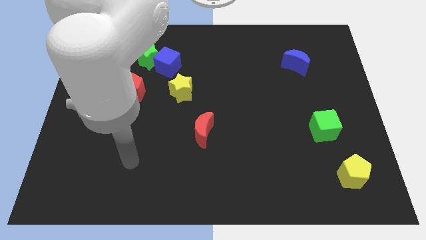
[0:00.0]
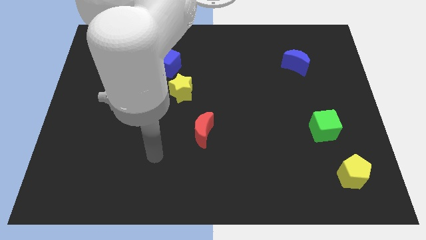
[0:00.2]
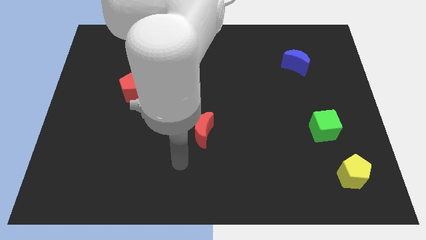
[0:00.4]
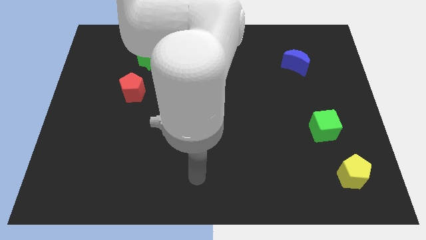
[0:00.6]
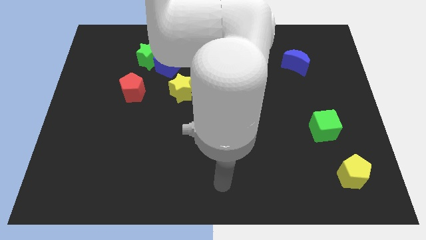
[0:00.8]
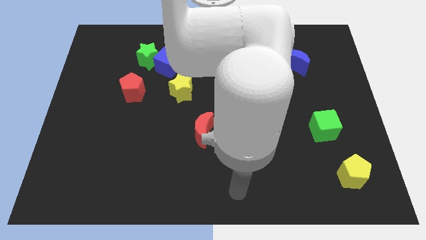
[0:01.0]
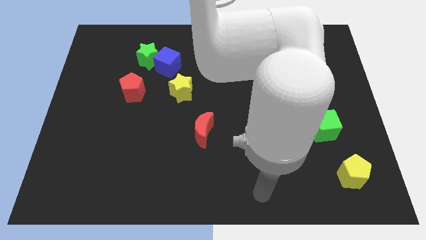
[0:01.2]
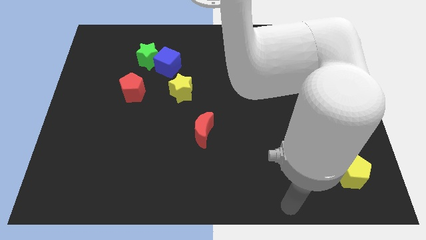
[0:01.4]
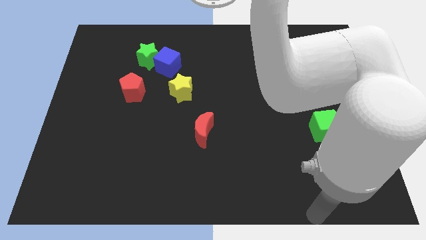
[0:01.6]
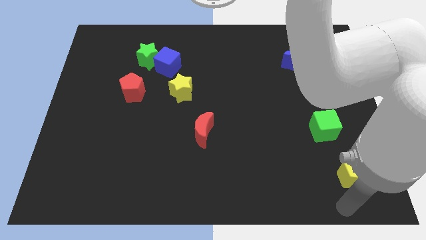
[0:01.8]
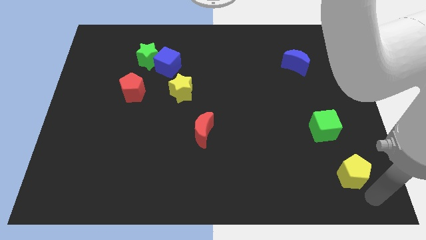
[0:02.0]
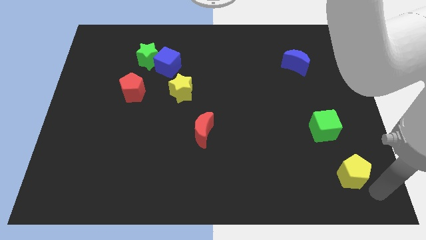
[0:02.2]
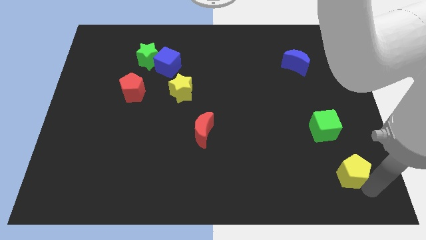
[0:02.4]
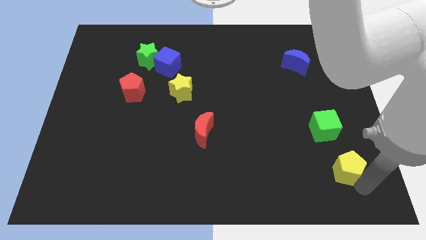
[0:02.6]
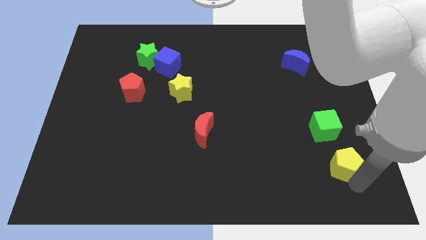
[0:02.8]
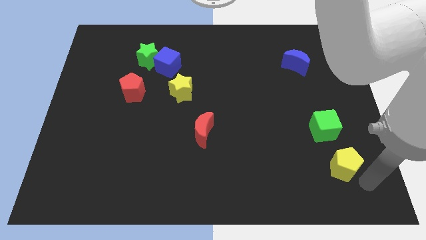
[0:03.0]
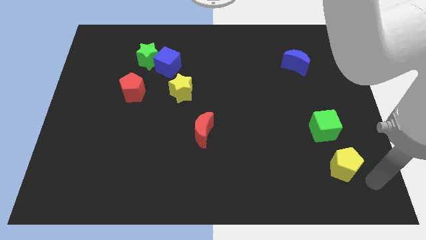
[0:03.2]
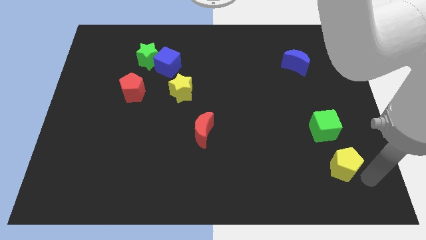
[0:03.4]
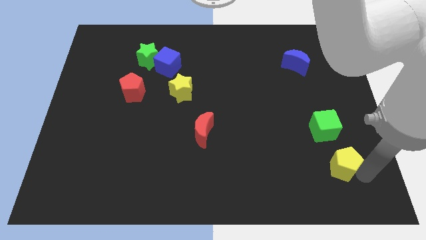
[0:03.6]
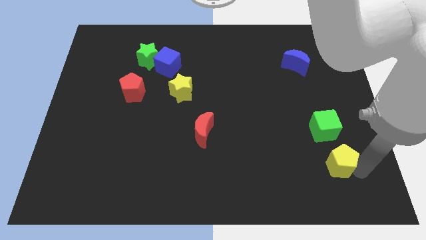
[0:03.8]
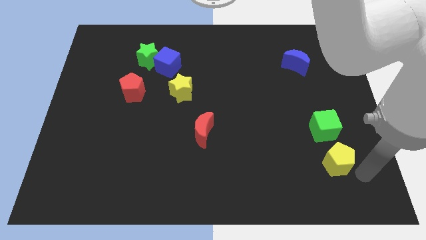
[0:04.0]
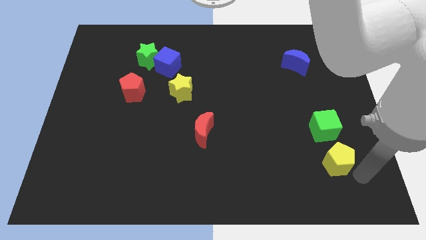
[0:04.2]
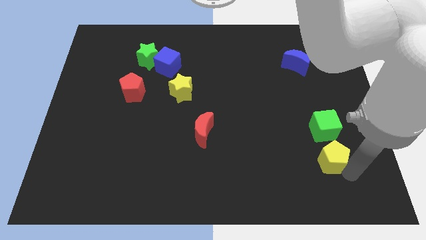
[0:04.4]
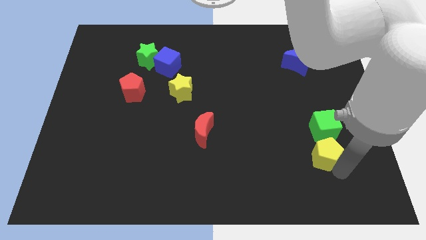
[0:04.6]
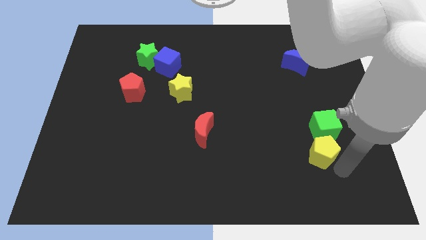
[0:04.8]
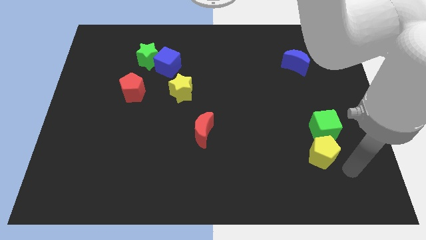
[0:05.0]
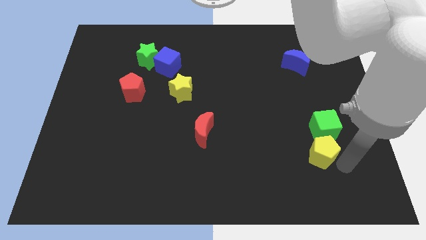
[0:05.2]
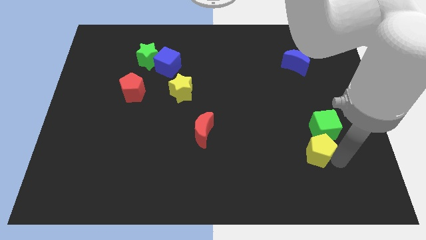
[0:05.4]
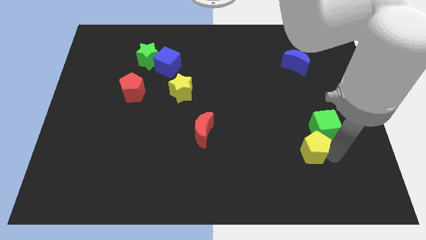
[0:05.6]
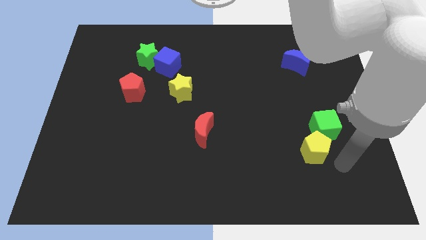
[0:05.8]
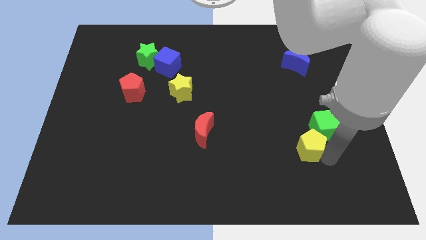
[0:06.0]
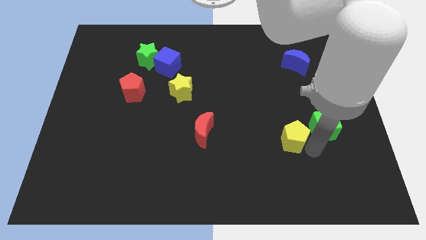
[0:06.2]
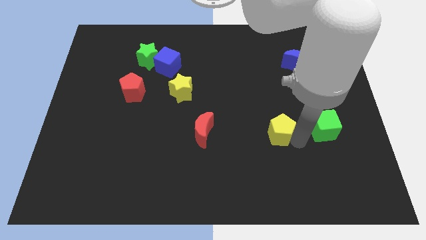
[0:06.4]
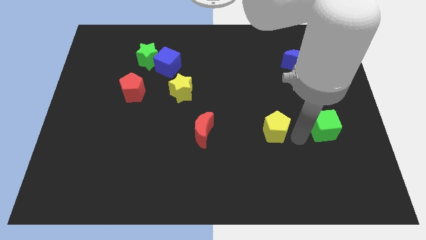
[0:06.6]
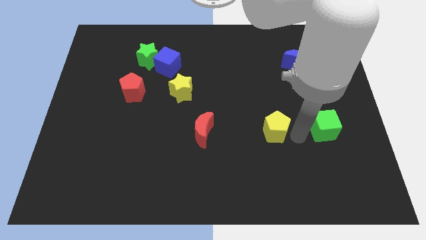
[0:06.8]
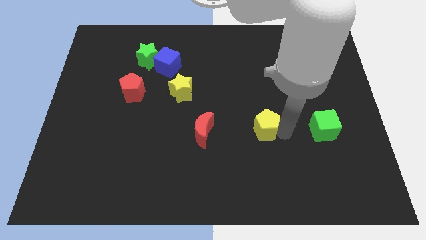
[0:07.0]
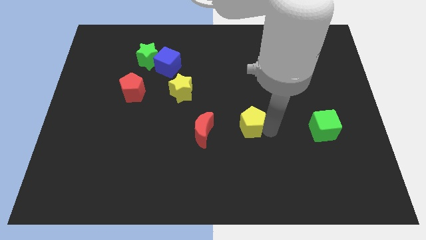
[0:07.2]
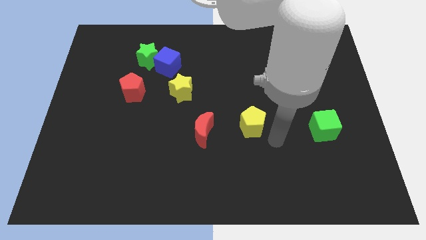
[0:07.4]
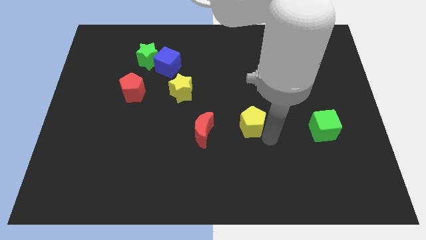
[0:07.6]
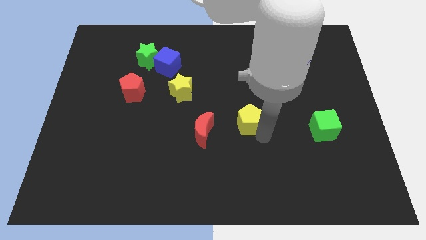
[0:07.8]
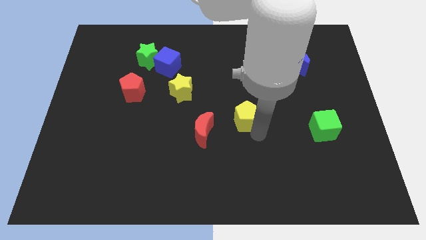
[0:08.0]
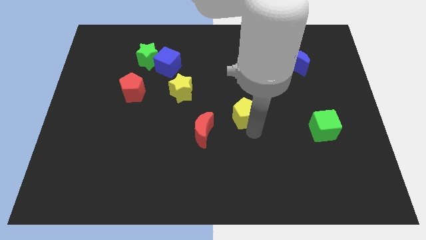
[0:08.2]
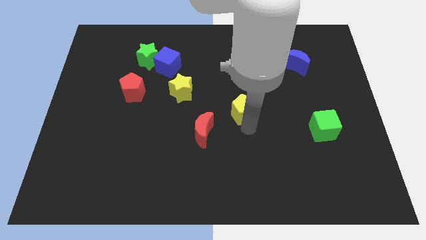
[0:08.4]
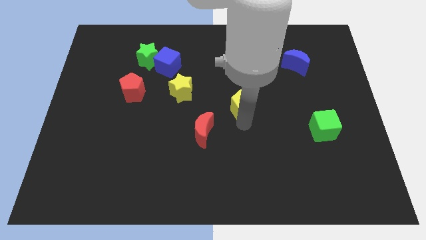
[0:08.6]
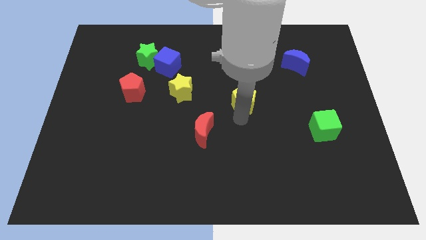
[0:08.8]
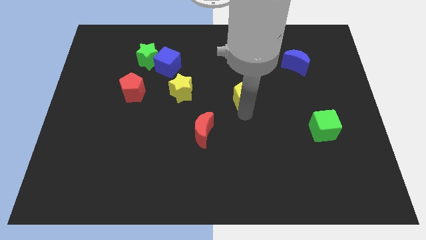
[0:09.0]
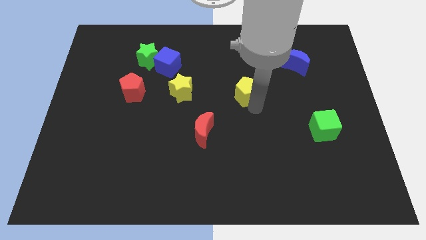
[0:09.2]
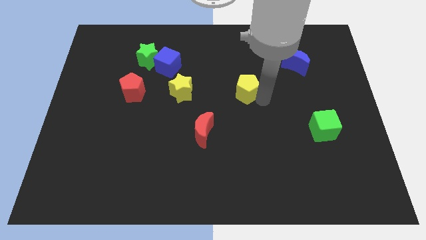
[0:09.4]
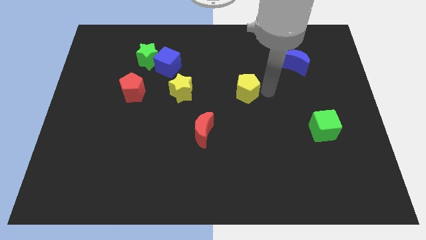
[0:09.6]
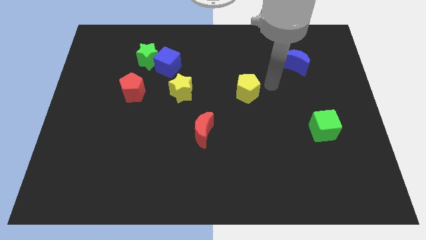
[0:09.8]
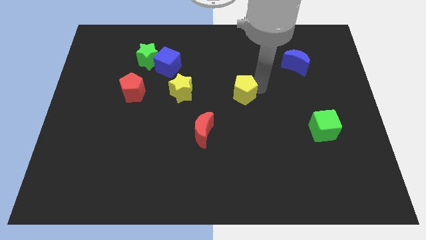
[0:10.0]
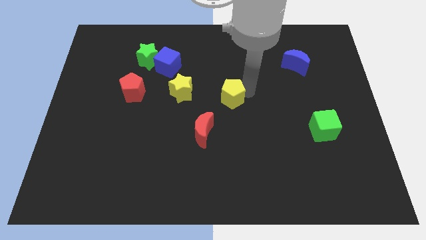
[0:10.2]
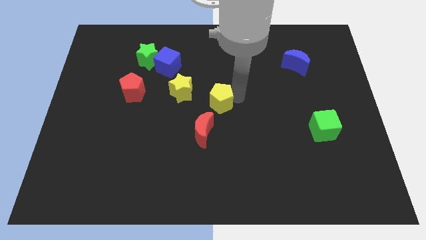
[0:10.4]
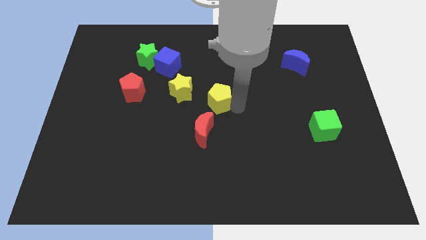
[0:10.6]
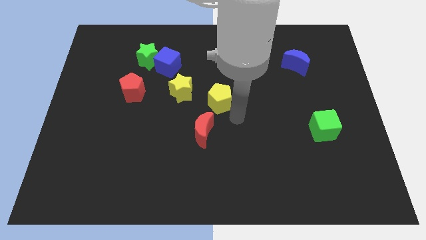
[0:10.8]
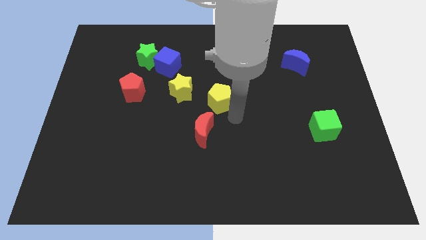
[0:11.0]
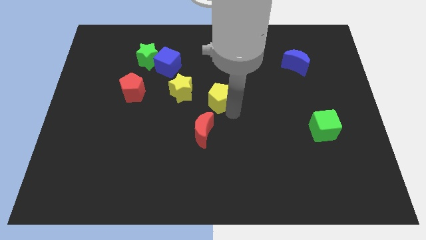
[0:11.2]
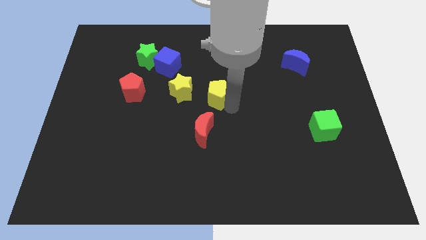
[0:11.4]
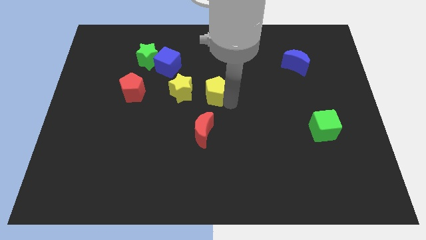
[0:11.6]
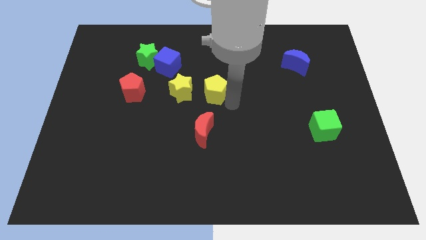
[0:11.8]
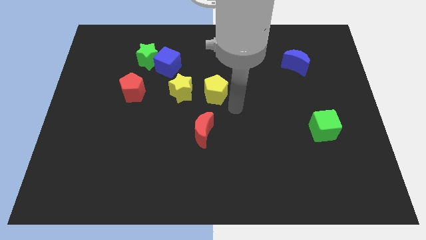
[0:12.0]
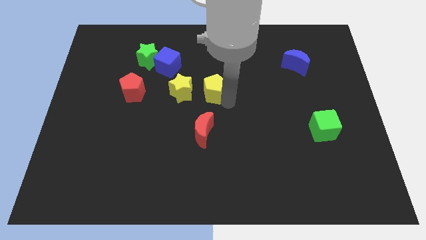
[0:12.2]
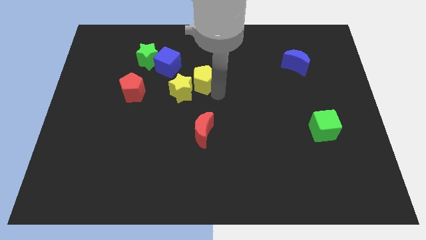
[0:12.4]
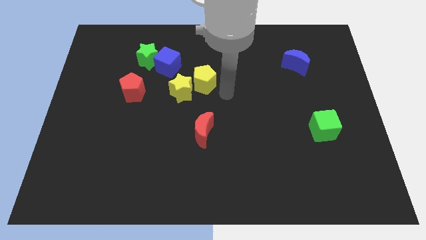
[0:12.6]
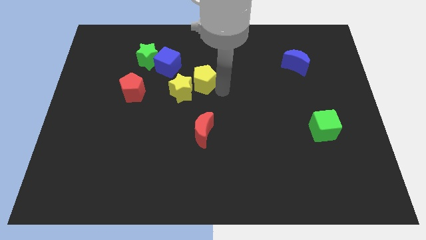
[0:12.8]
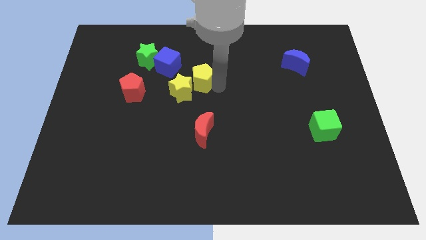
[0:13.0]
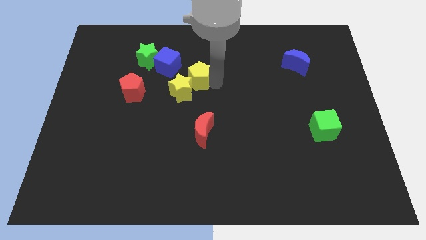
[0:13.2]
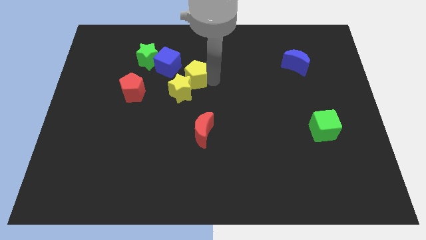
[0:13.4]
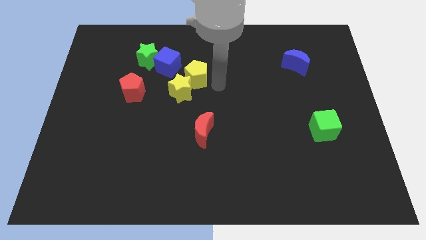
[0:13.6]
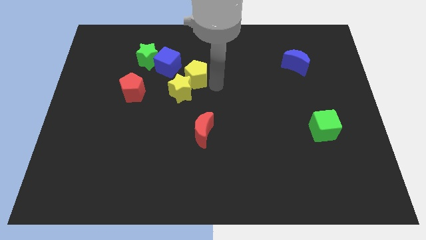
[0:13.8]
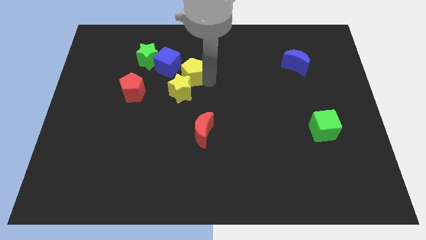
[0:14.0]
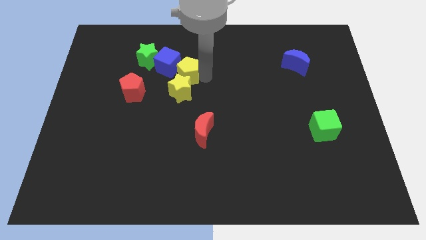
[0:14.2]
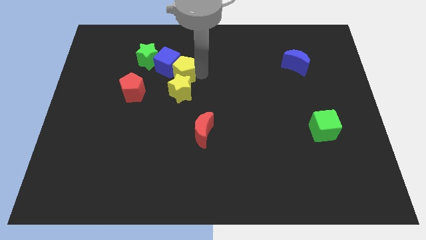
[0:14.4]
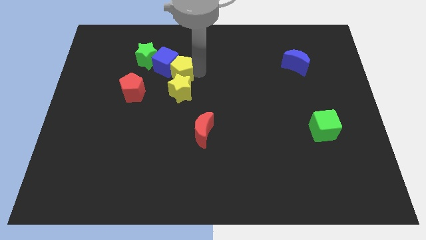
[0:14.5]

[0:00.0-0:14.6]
put the yellow pentagon diagonally up and to the left of the yellow star

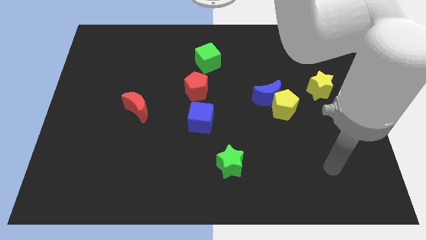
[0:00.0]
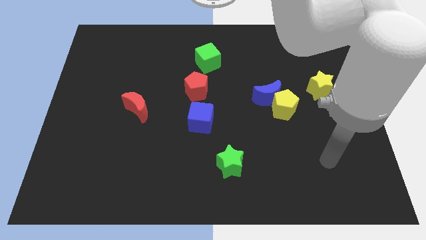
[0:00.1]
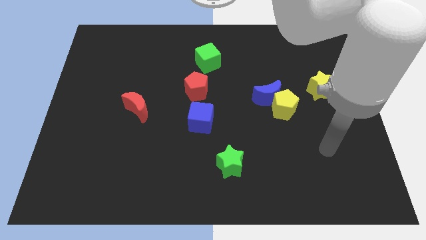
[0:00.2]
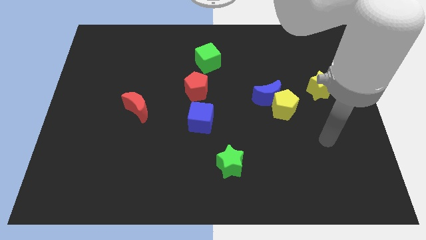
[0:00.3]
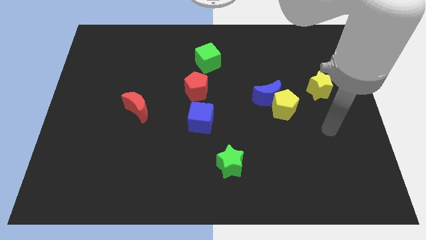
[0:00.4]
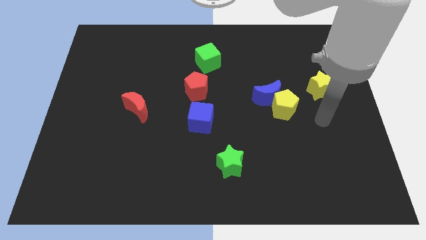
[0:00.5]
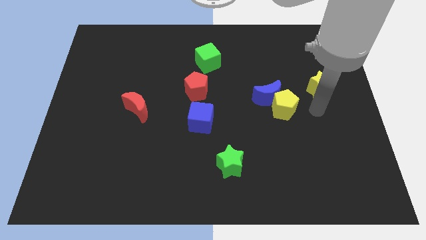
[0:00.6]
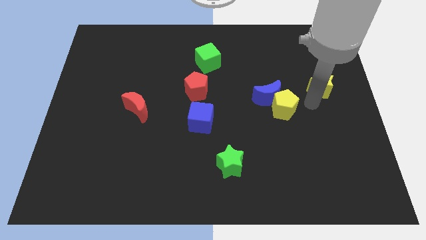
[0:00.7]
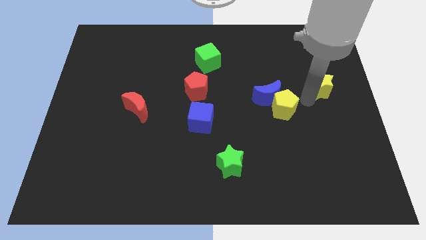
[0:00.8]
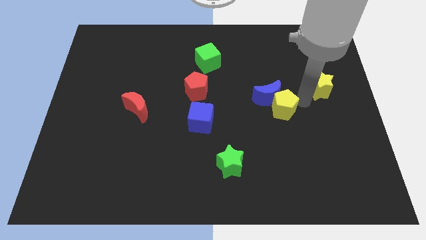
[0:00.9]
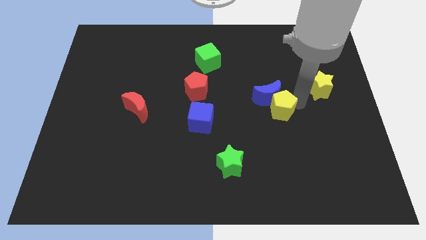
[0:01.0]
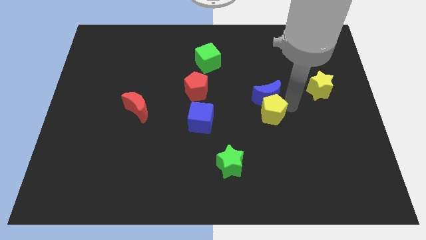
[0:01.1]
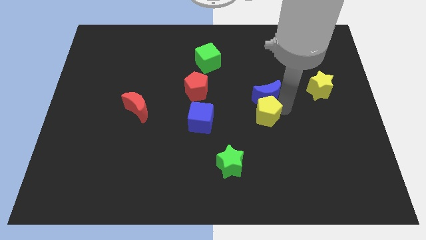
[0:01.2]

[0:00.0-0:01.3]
put the yellow pentagon to the right of the blue cube
